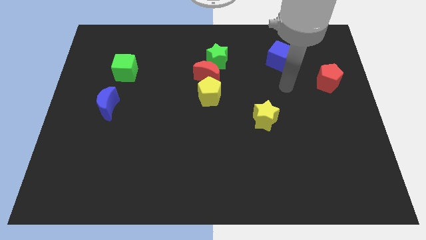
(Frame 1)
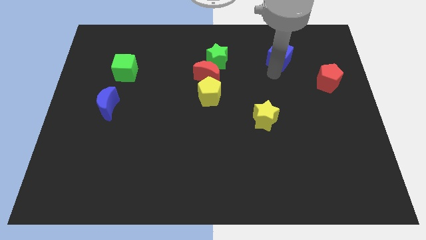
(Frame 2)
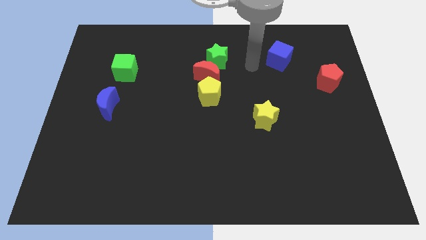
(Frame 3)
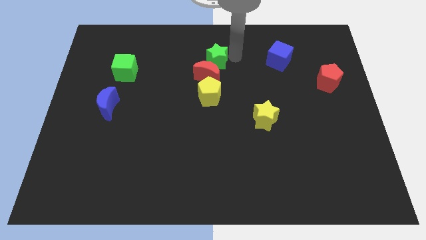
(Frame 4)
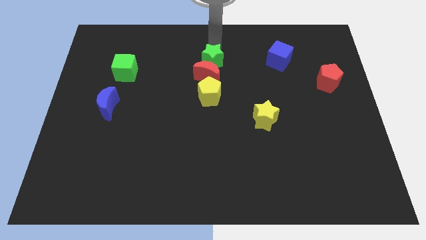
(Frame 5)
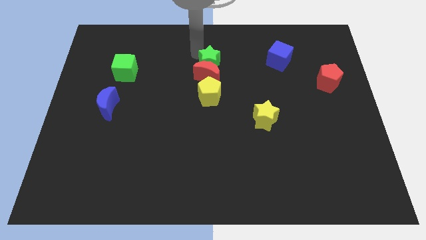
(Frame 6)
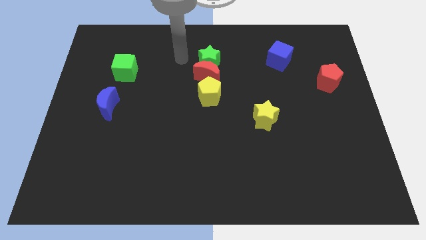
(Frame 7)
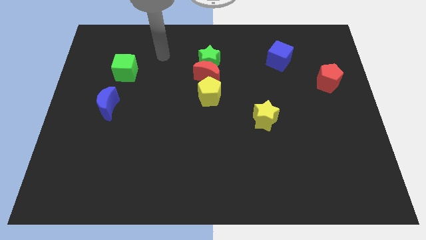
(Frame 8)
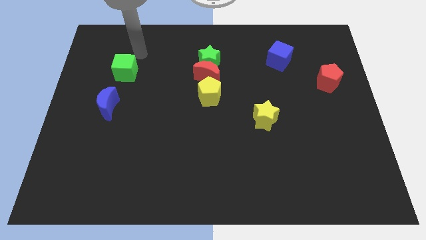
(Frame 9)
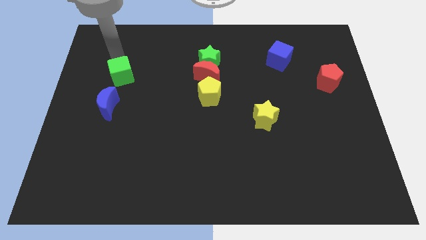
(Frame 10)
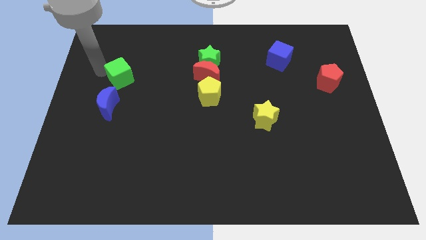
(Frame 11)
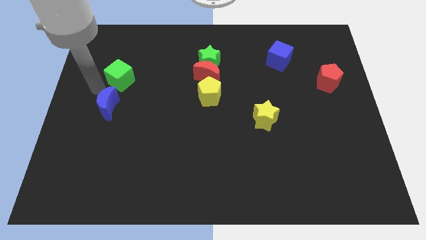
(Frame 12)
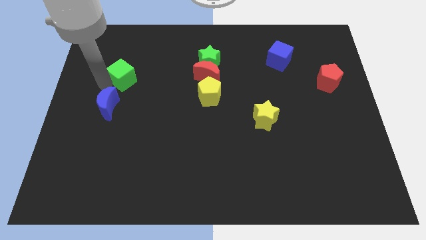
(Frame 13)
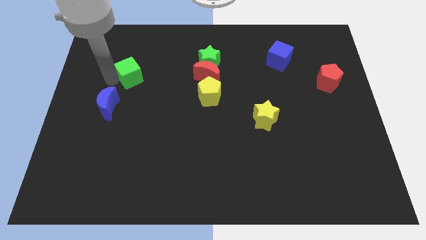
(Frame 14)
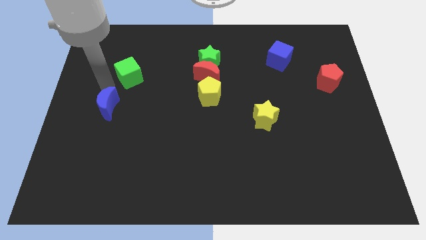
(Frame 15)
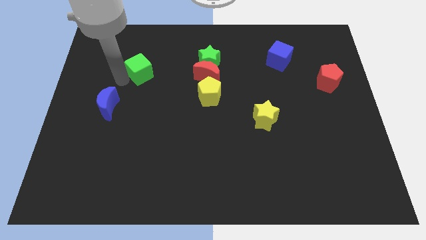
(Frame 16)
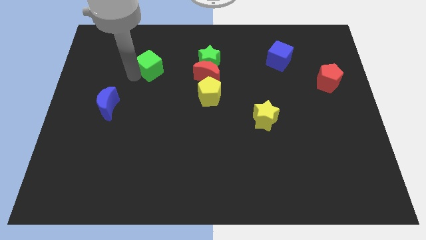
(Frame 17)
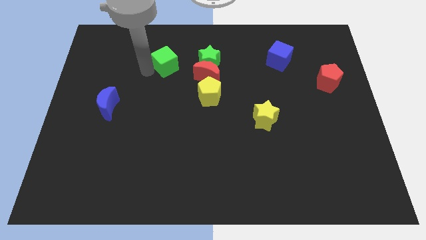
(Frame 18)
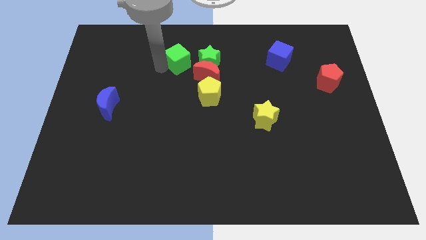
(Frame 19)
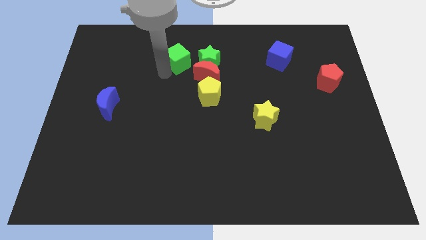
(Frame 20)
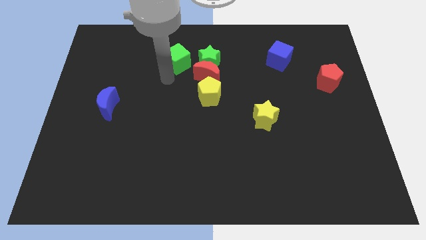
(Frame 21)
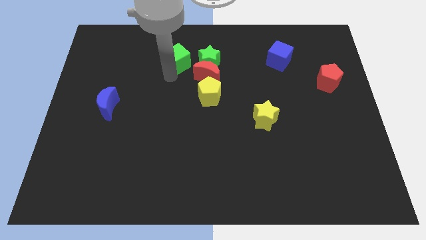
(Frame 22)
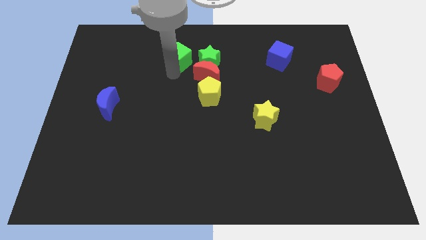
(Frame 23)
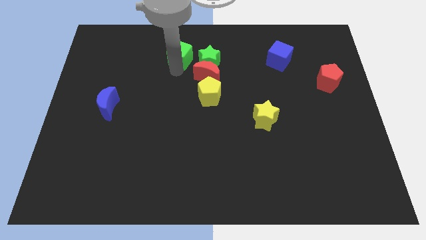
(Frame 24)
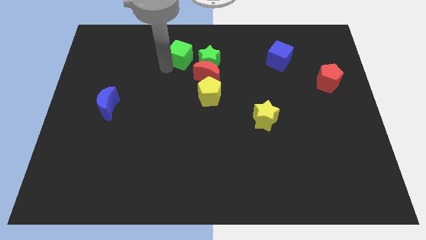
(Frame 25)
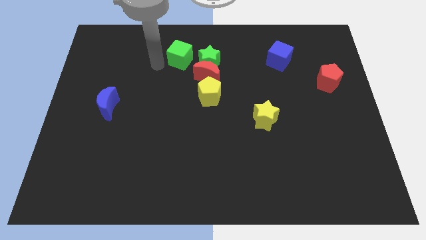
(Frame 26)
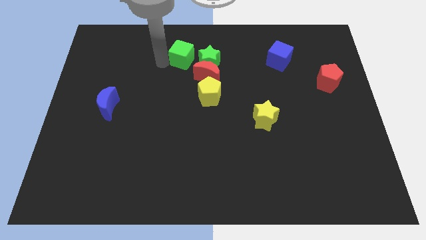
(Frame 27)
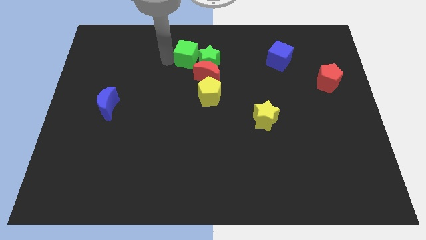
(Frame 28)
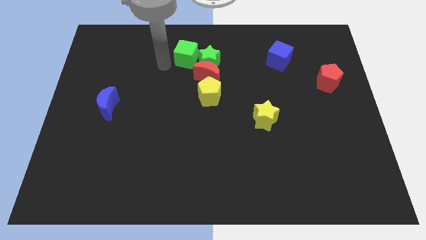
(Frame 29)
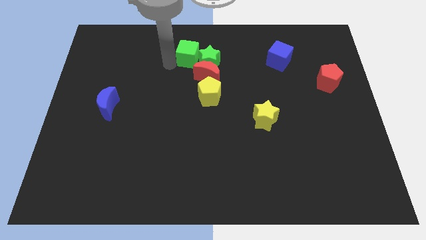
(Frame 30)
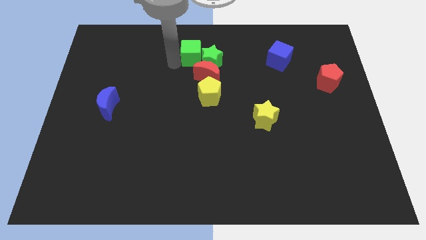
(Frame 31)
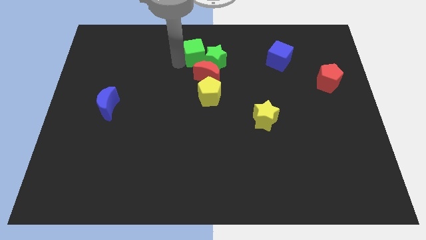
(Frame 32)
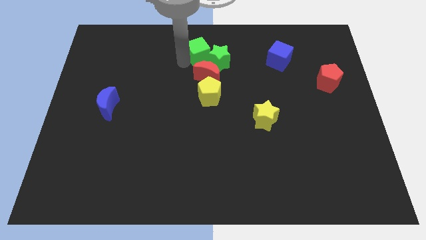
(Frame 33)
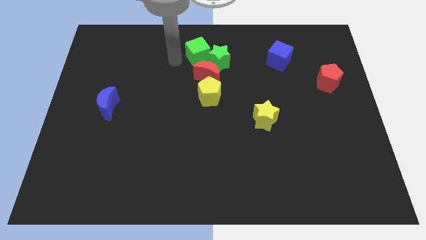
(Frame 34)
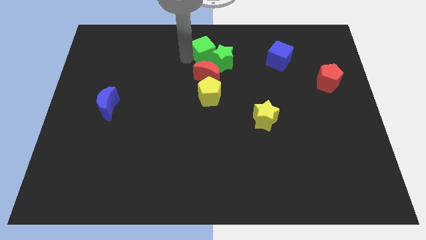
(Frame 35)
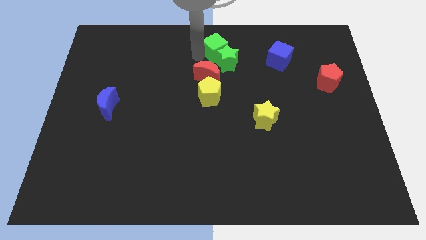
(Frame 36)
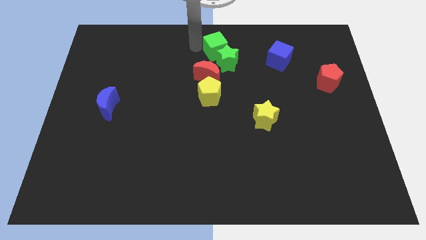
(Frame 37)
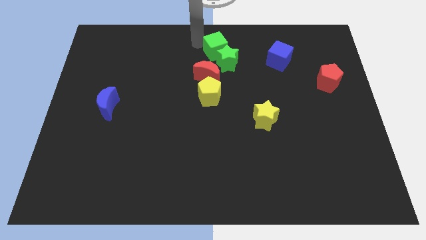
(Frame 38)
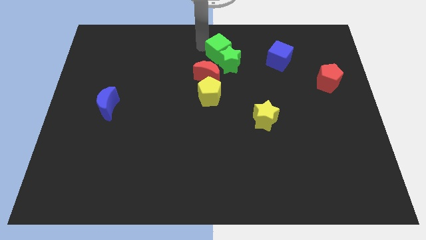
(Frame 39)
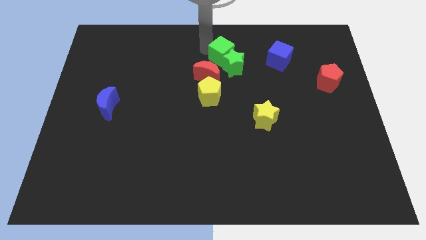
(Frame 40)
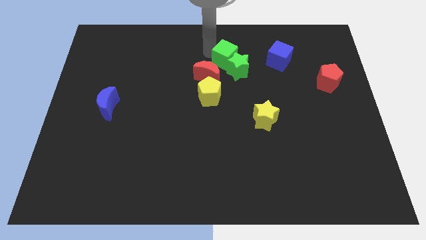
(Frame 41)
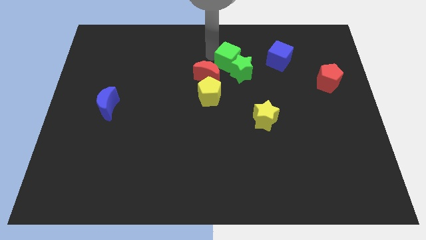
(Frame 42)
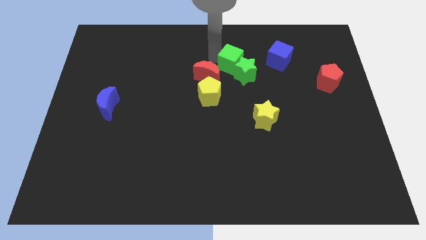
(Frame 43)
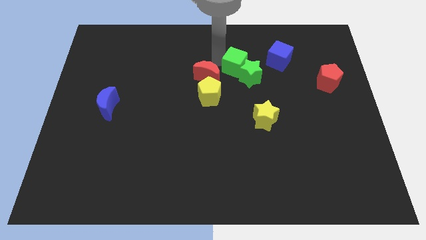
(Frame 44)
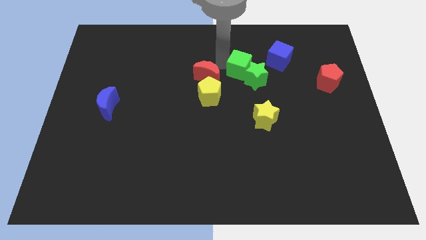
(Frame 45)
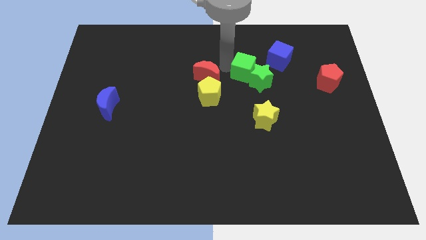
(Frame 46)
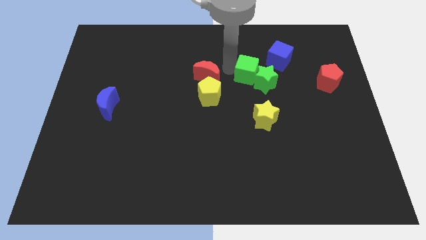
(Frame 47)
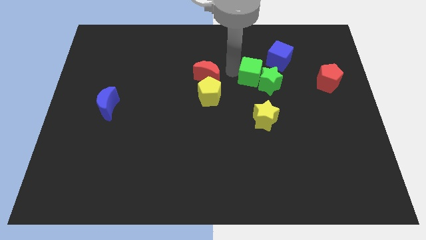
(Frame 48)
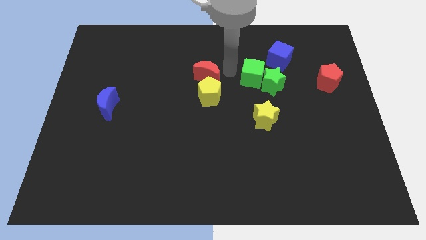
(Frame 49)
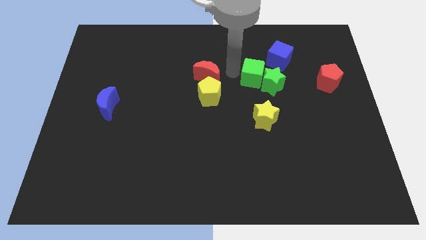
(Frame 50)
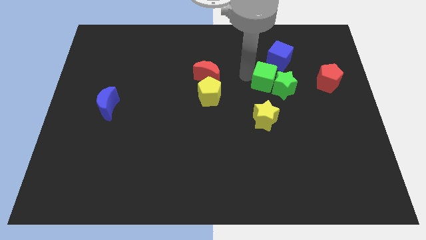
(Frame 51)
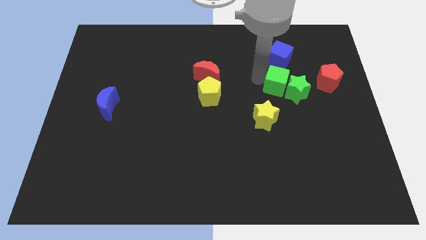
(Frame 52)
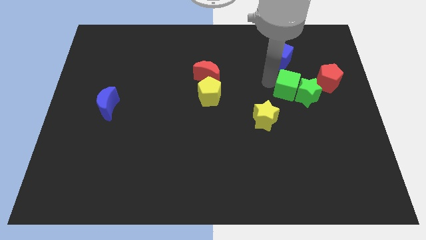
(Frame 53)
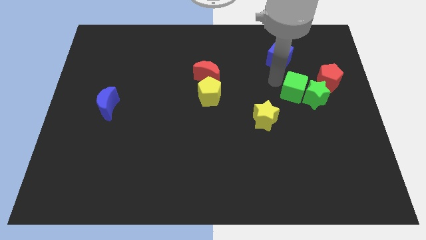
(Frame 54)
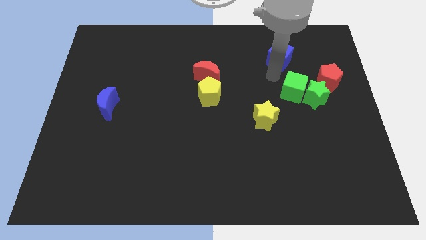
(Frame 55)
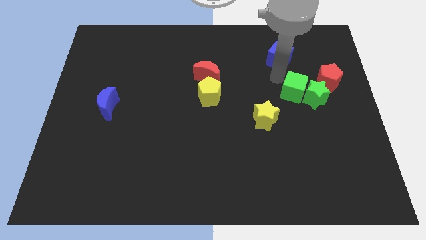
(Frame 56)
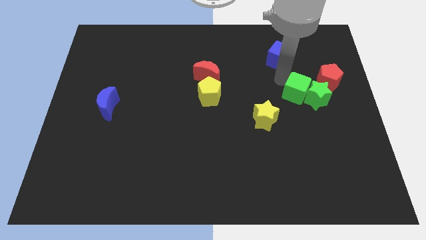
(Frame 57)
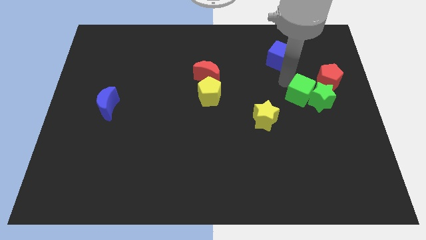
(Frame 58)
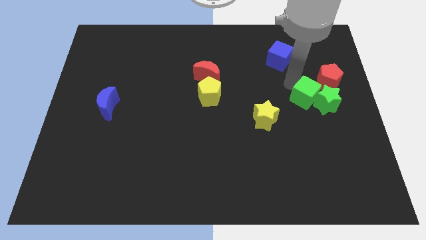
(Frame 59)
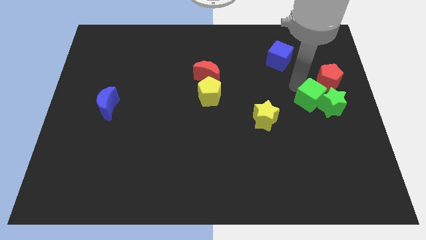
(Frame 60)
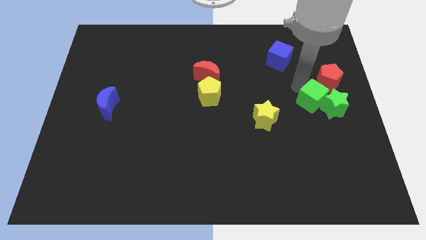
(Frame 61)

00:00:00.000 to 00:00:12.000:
push the green cube to the bottom side of the red pentagon

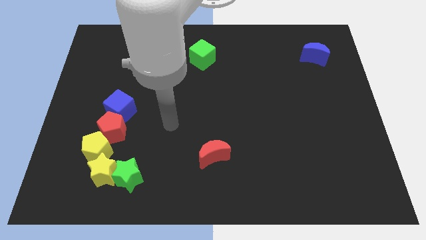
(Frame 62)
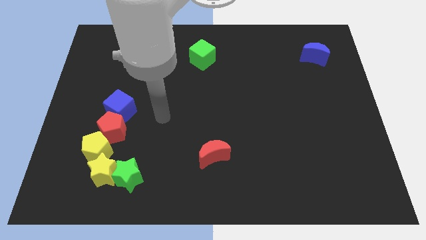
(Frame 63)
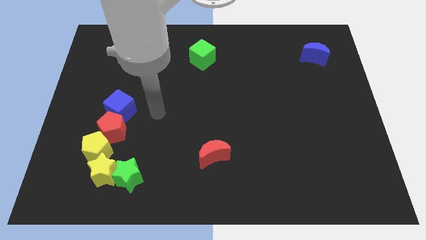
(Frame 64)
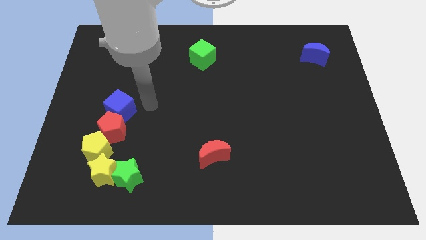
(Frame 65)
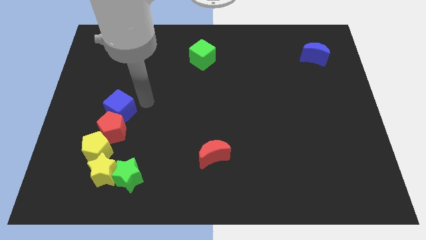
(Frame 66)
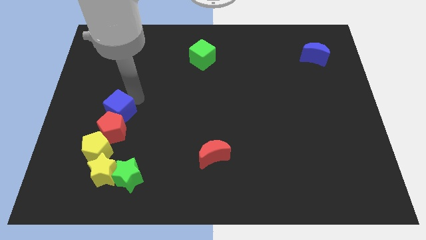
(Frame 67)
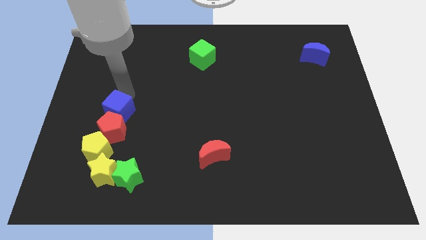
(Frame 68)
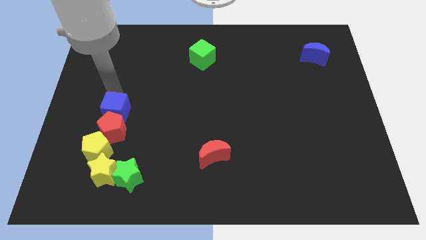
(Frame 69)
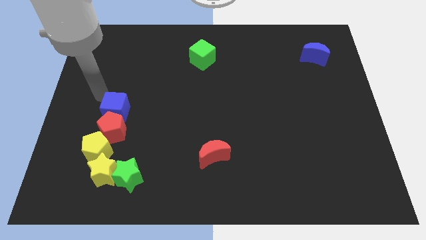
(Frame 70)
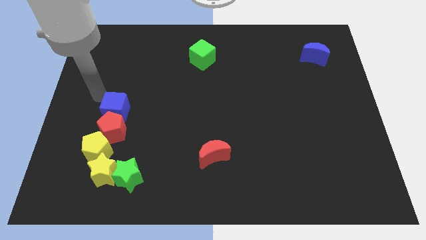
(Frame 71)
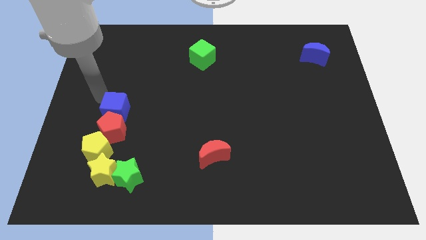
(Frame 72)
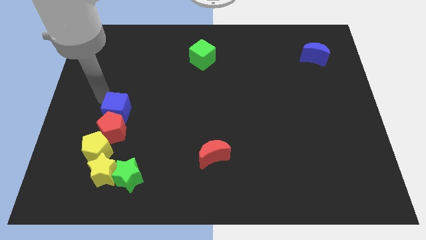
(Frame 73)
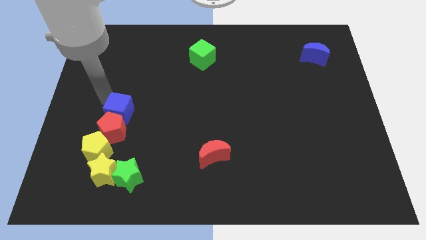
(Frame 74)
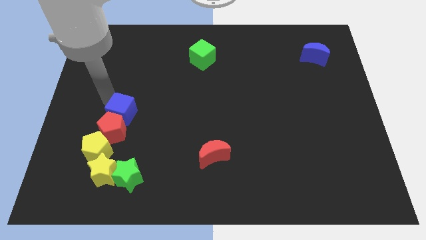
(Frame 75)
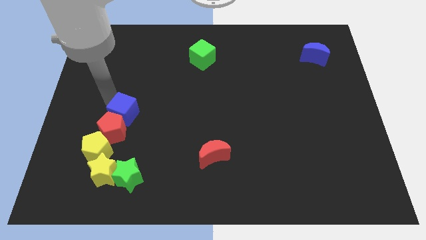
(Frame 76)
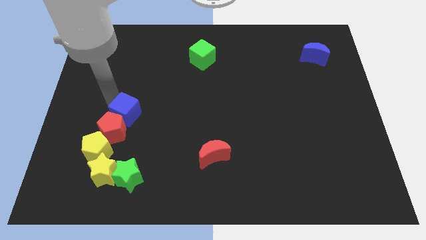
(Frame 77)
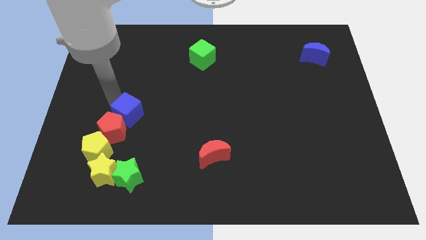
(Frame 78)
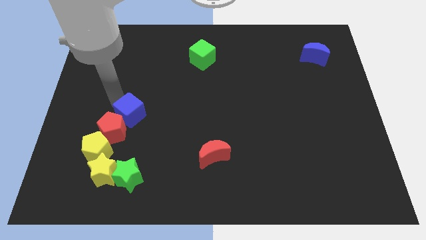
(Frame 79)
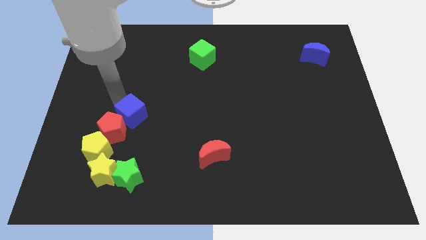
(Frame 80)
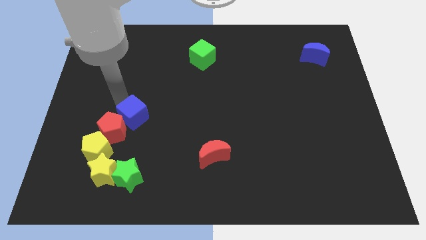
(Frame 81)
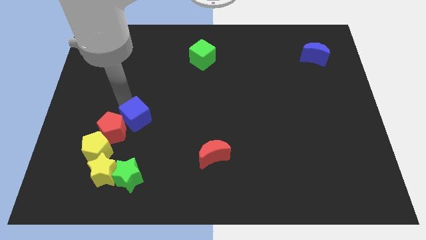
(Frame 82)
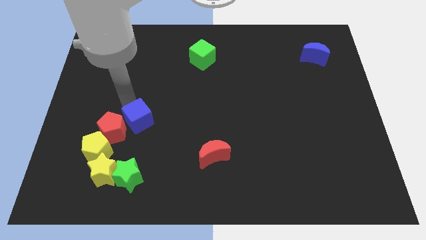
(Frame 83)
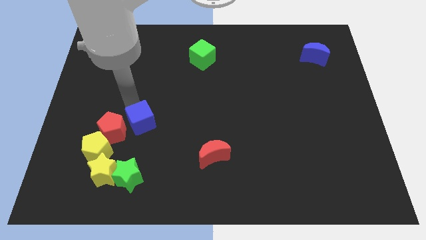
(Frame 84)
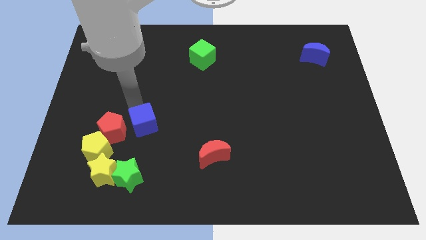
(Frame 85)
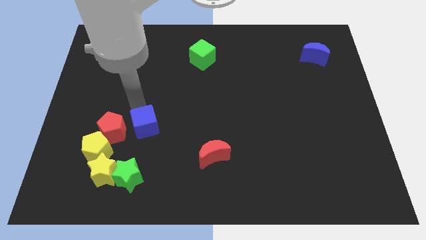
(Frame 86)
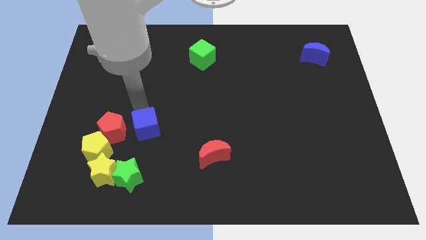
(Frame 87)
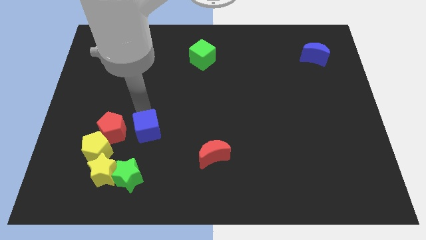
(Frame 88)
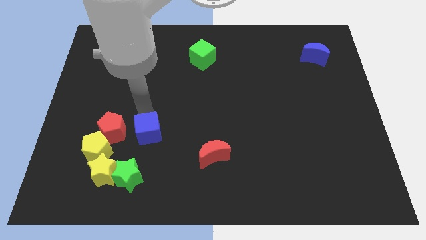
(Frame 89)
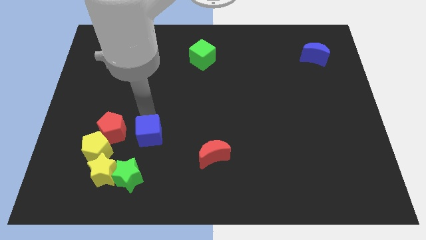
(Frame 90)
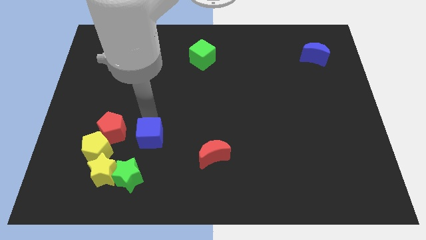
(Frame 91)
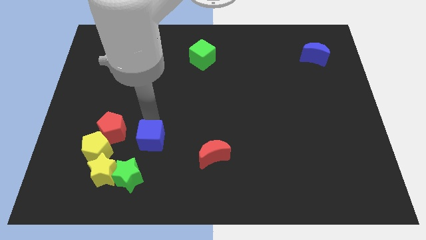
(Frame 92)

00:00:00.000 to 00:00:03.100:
slide the blue cube to the bottom right side of the red pentagon
